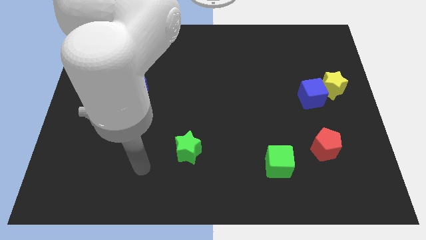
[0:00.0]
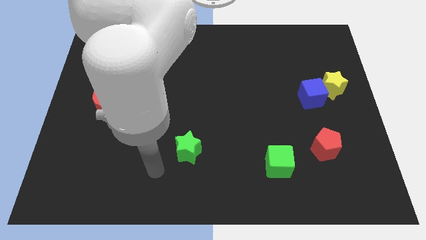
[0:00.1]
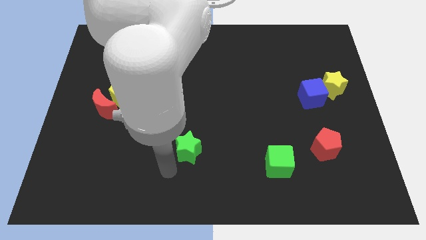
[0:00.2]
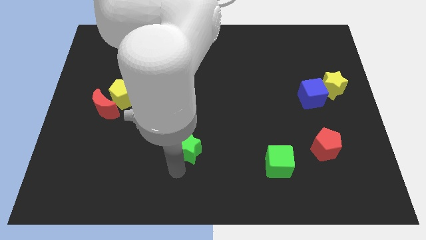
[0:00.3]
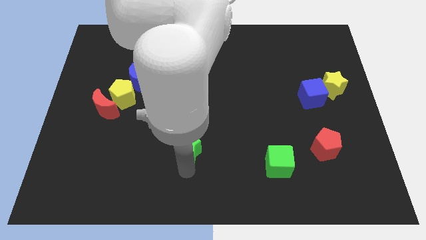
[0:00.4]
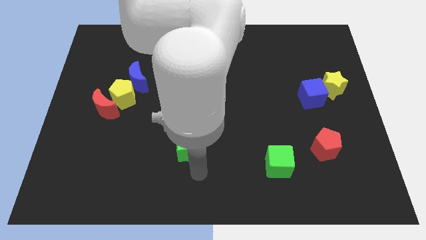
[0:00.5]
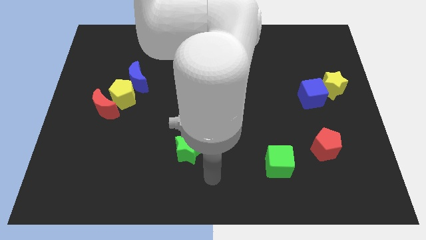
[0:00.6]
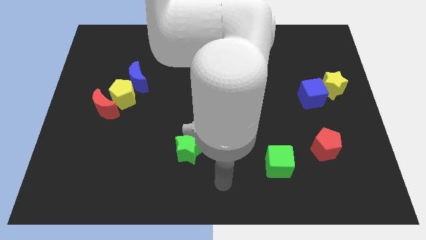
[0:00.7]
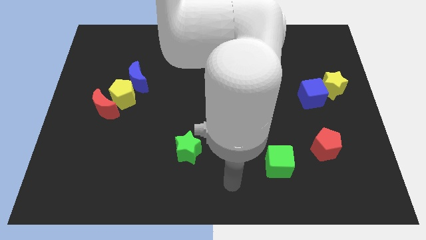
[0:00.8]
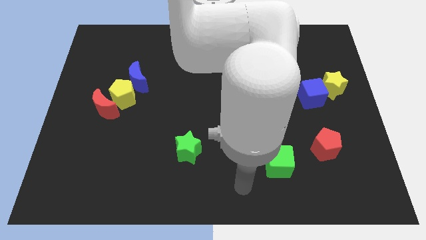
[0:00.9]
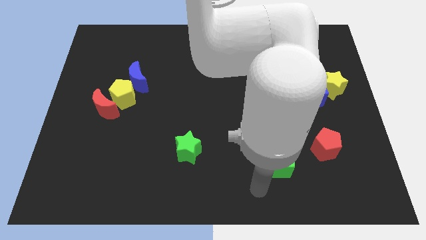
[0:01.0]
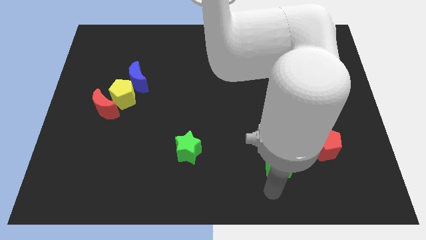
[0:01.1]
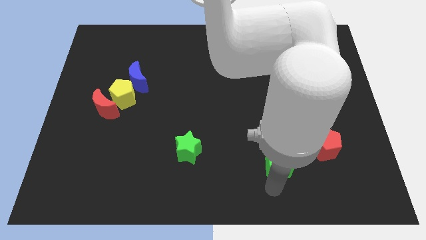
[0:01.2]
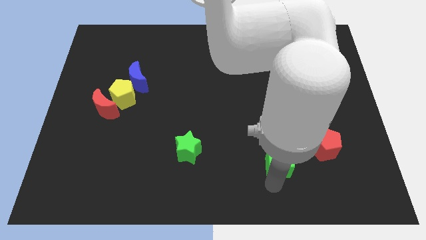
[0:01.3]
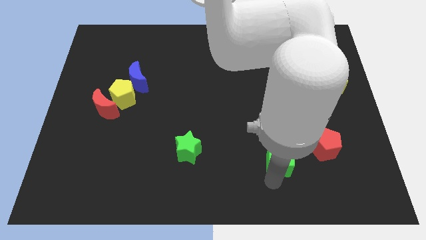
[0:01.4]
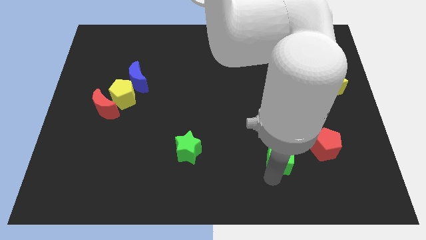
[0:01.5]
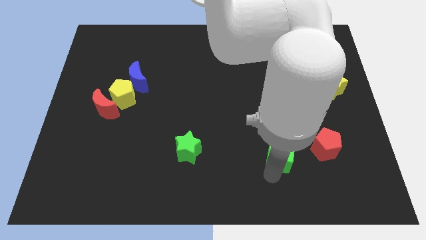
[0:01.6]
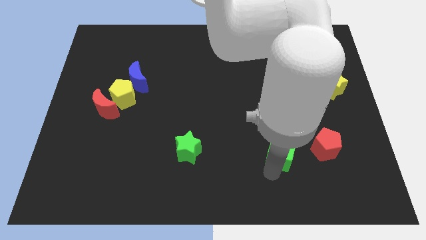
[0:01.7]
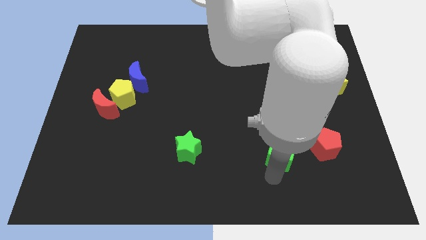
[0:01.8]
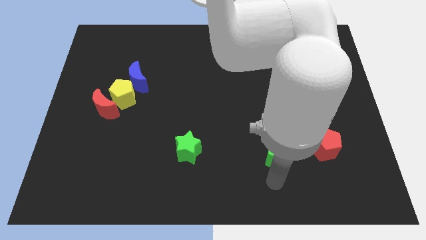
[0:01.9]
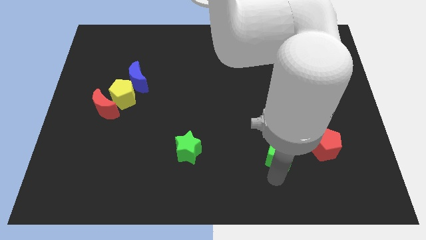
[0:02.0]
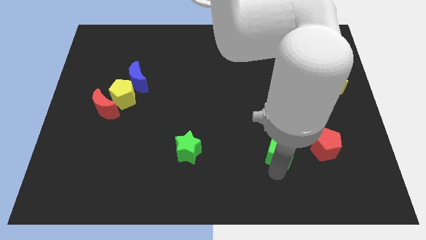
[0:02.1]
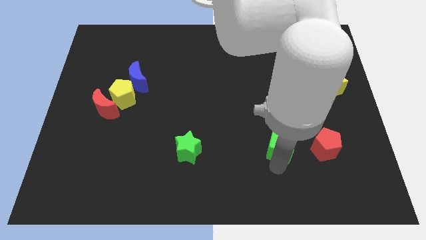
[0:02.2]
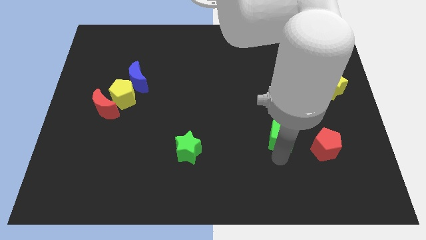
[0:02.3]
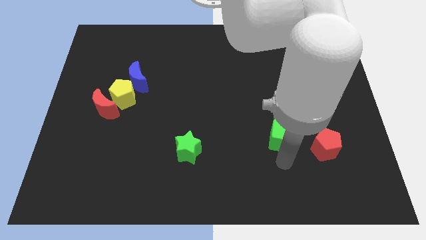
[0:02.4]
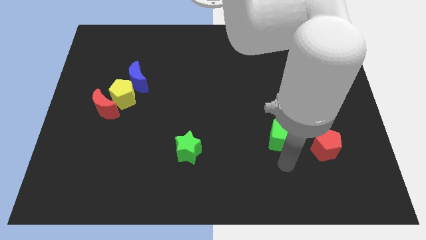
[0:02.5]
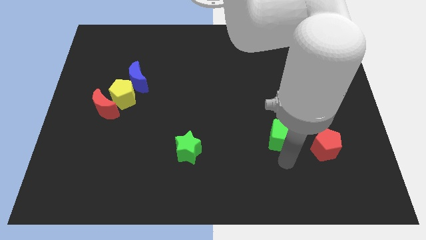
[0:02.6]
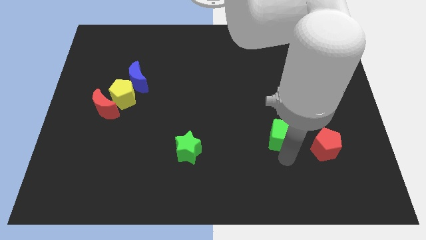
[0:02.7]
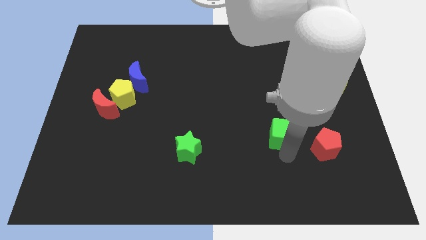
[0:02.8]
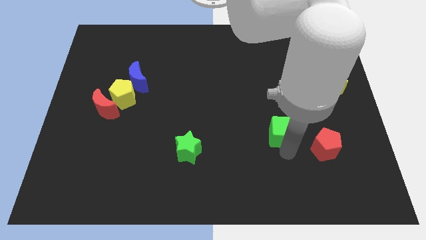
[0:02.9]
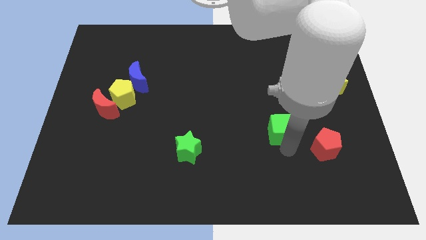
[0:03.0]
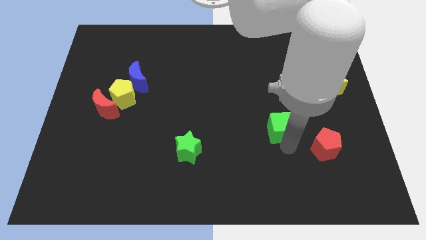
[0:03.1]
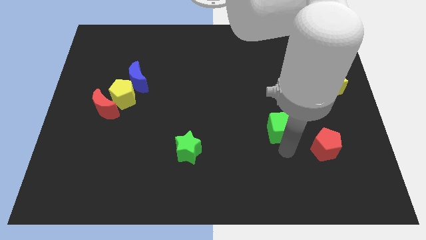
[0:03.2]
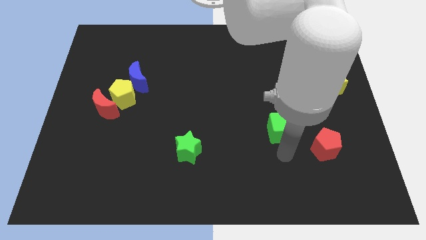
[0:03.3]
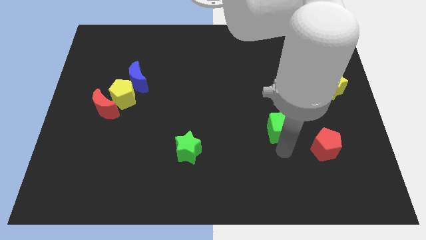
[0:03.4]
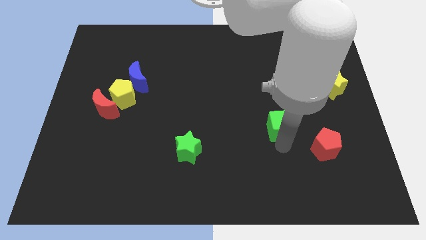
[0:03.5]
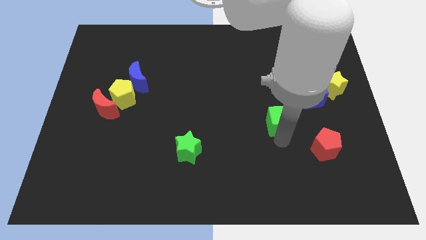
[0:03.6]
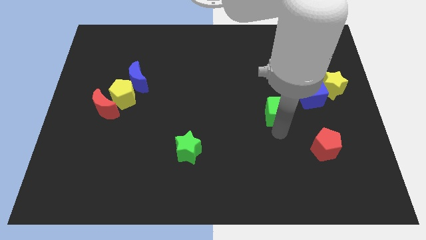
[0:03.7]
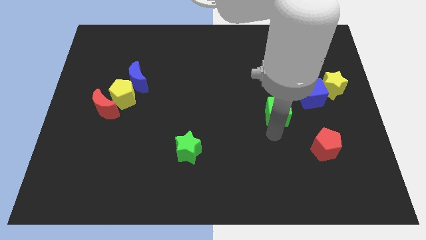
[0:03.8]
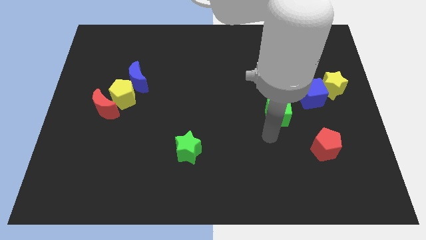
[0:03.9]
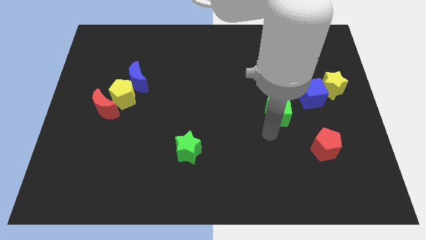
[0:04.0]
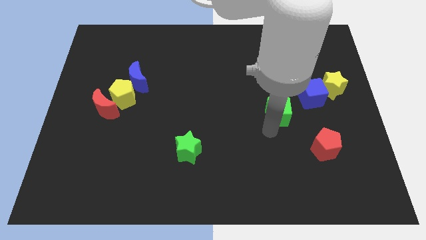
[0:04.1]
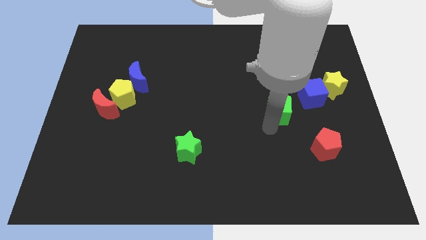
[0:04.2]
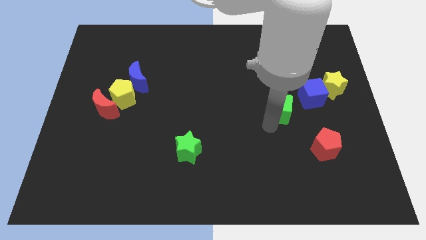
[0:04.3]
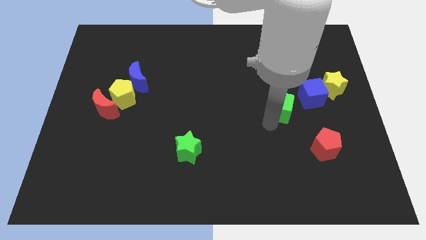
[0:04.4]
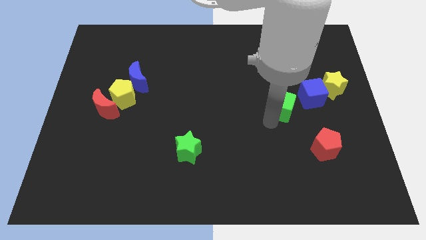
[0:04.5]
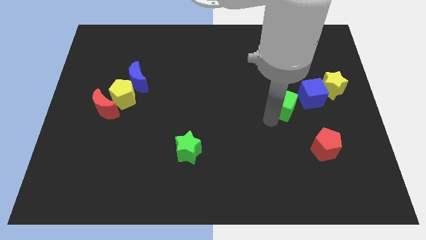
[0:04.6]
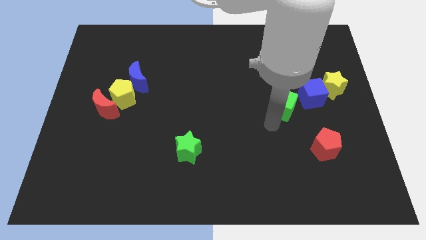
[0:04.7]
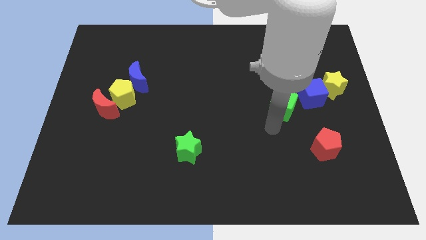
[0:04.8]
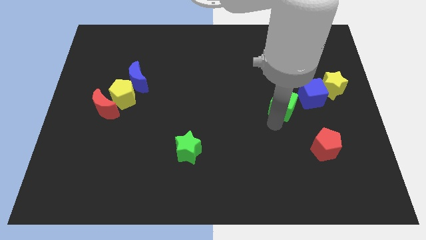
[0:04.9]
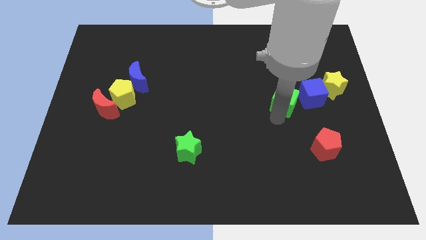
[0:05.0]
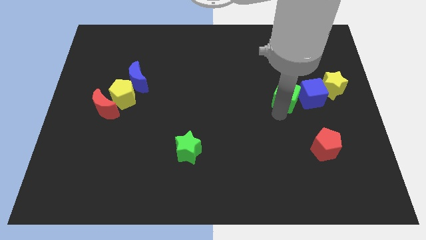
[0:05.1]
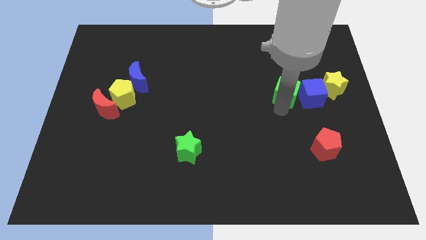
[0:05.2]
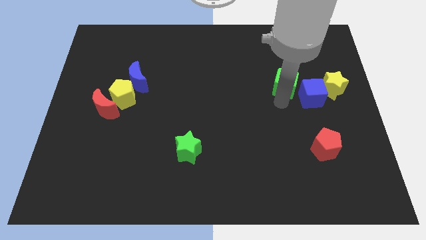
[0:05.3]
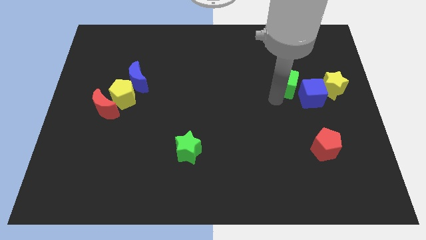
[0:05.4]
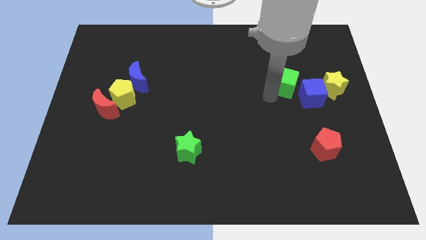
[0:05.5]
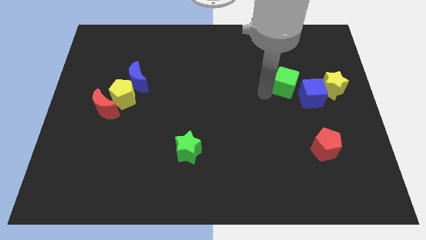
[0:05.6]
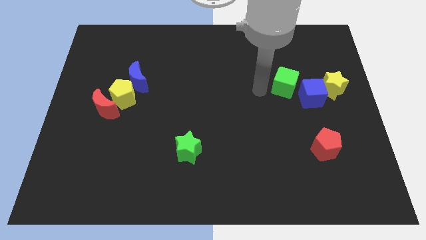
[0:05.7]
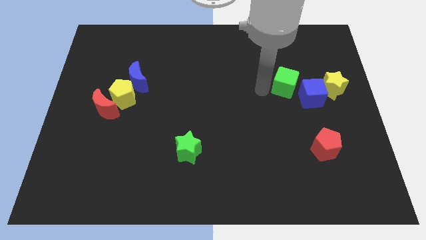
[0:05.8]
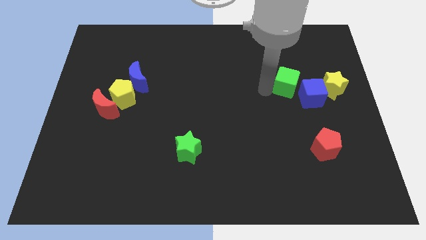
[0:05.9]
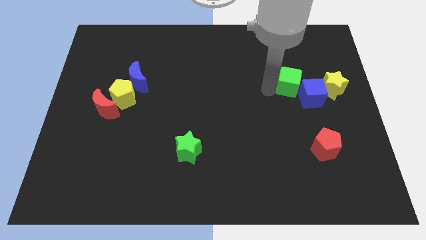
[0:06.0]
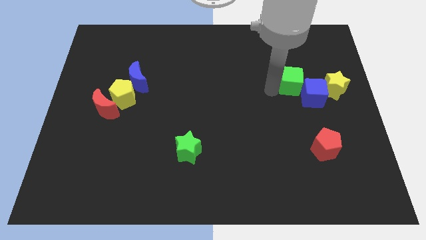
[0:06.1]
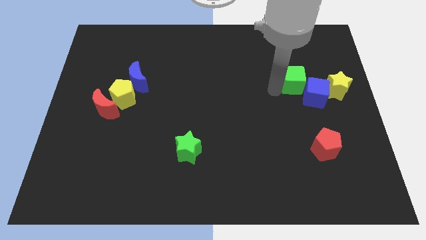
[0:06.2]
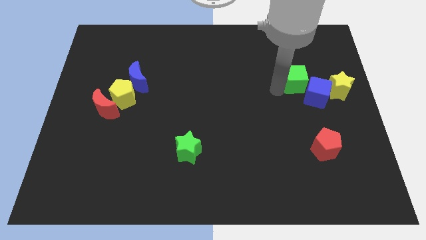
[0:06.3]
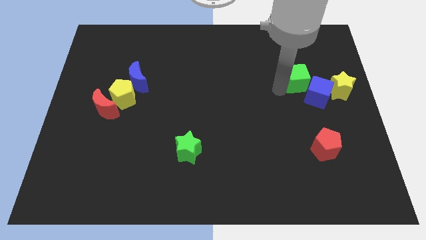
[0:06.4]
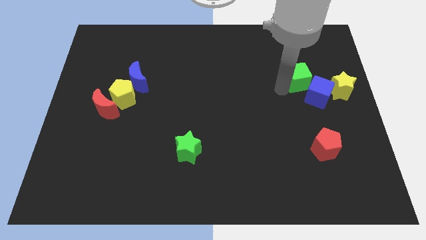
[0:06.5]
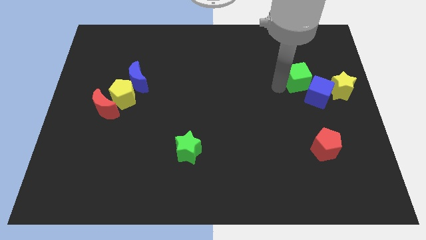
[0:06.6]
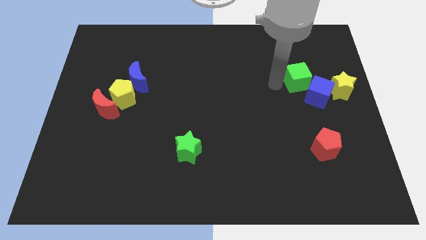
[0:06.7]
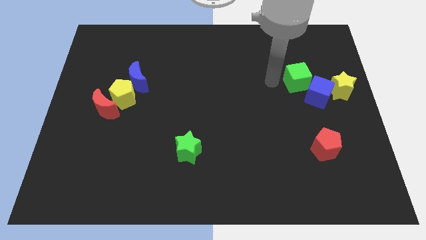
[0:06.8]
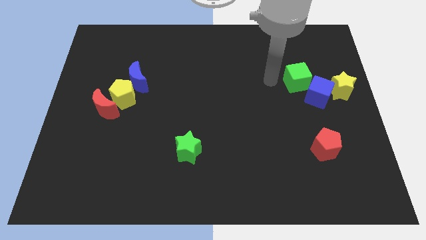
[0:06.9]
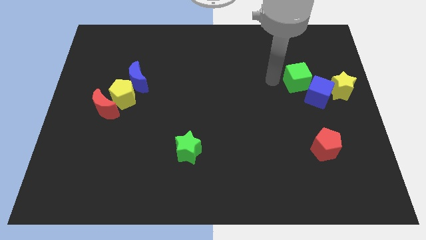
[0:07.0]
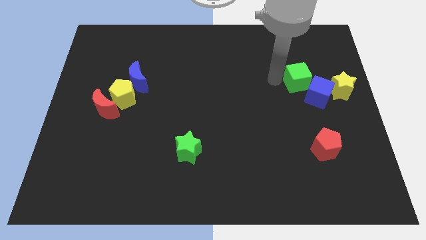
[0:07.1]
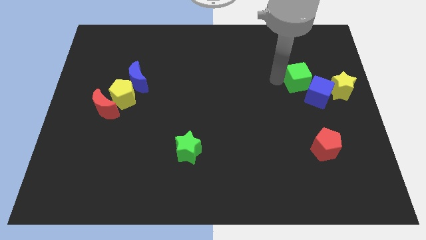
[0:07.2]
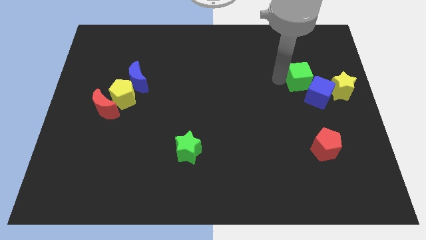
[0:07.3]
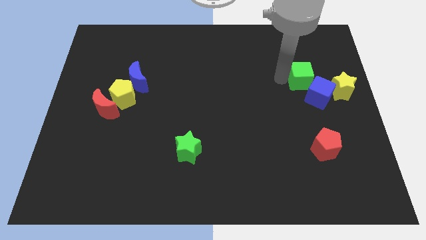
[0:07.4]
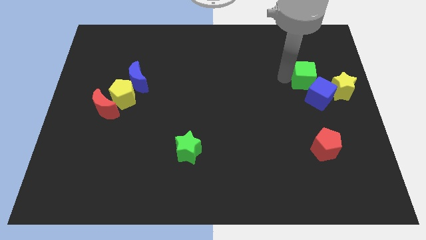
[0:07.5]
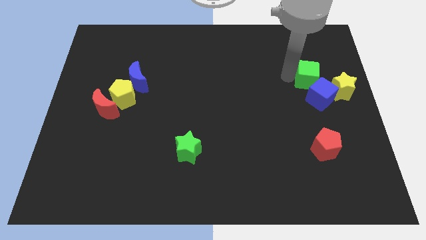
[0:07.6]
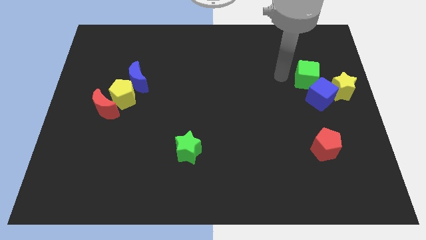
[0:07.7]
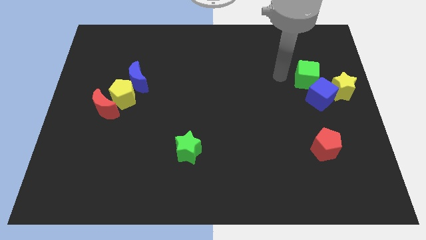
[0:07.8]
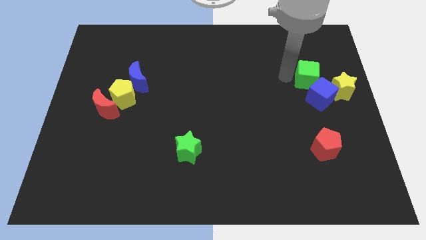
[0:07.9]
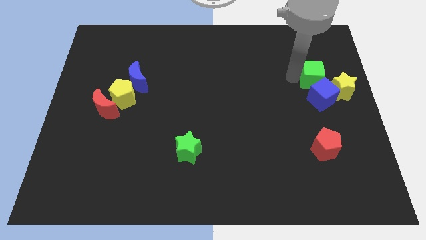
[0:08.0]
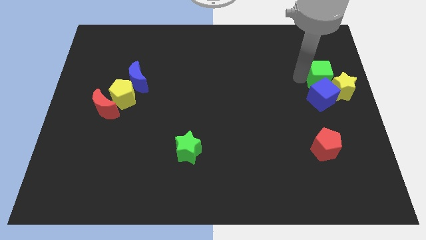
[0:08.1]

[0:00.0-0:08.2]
push the green cube to the top right of the blue cube
